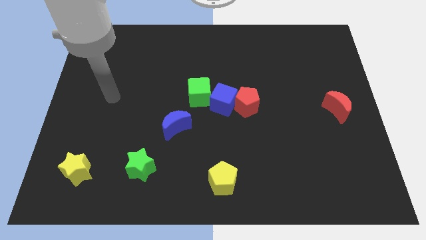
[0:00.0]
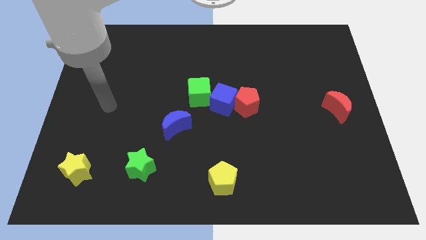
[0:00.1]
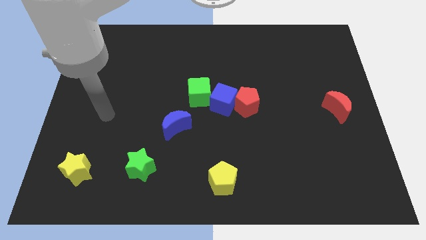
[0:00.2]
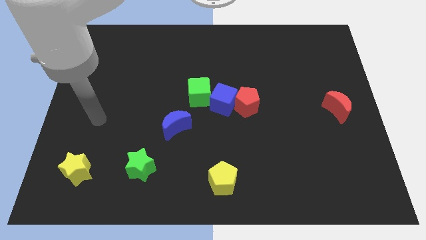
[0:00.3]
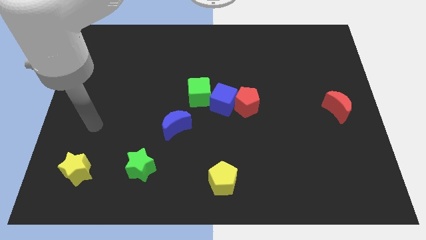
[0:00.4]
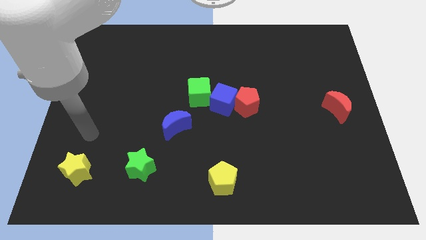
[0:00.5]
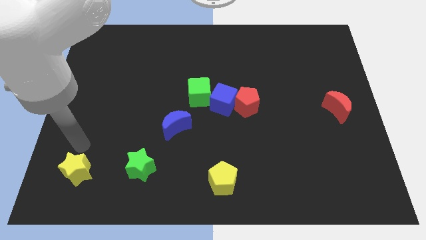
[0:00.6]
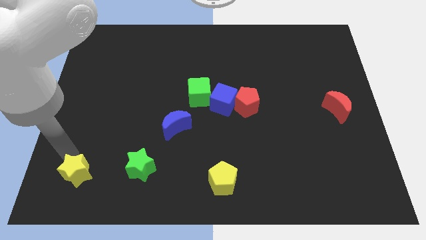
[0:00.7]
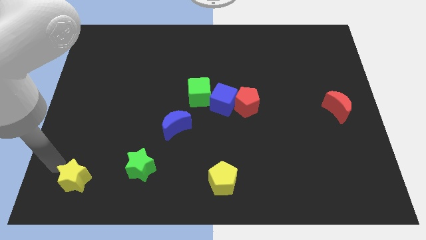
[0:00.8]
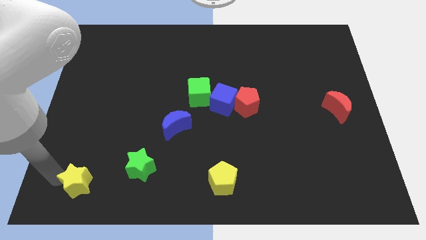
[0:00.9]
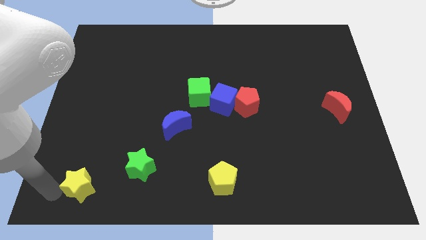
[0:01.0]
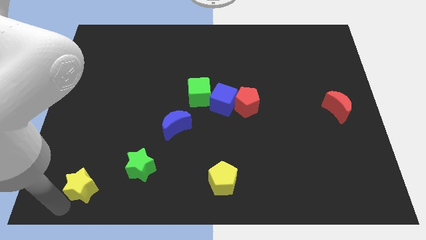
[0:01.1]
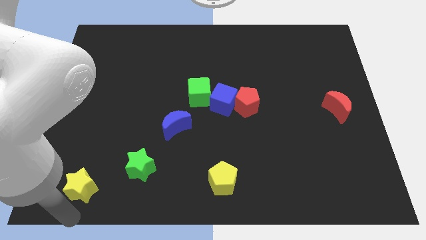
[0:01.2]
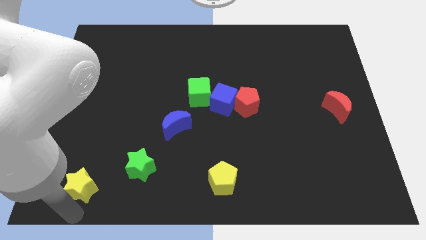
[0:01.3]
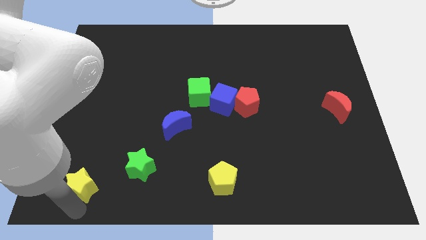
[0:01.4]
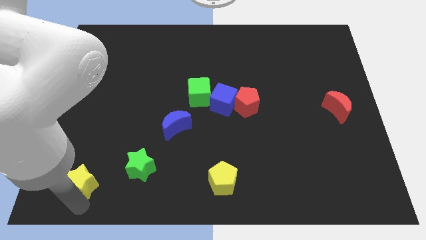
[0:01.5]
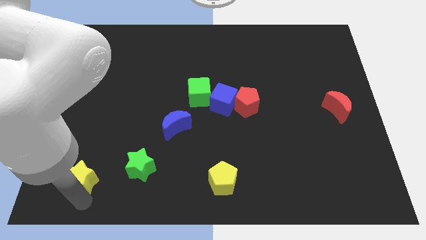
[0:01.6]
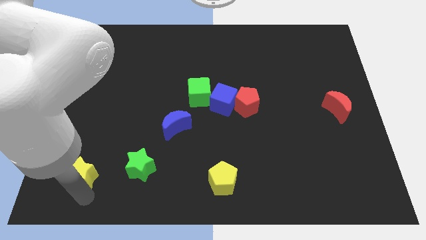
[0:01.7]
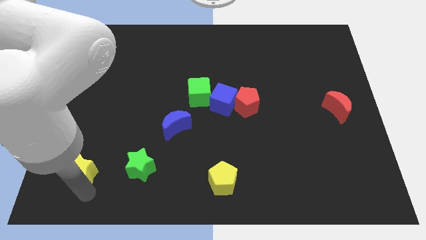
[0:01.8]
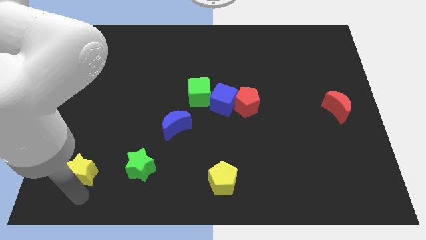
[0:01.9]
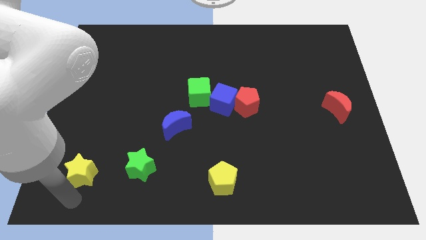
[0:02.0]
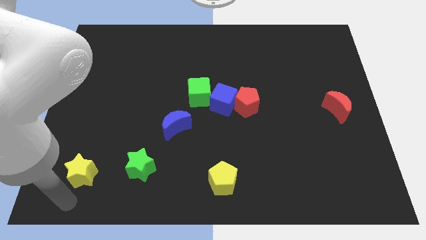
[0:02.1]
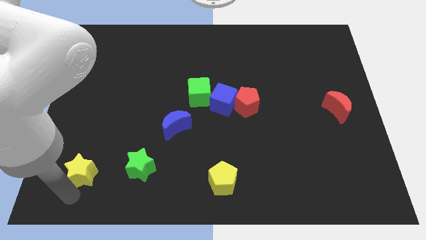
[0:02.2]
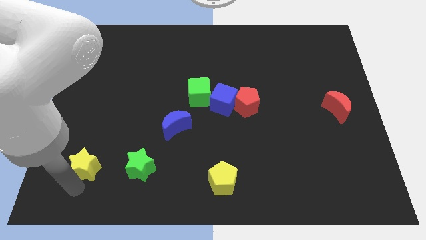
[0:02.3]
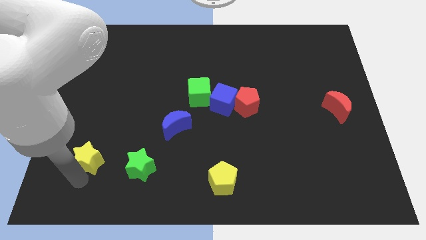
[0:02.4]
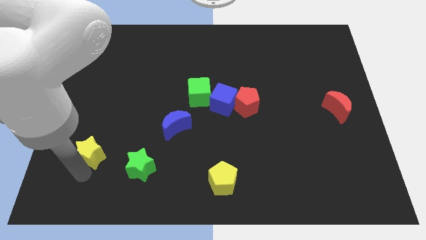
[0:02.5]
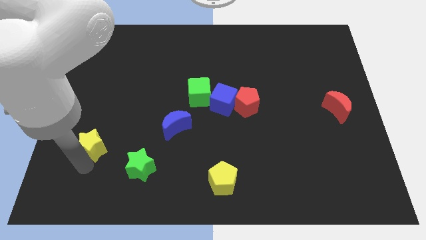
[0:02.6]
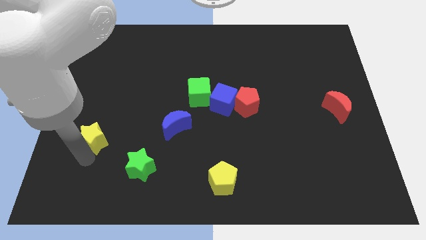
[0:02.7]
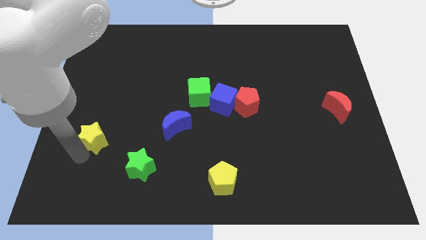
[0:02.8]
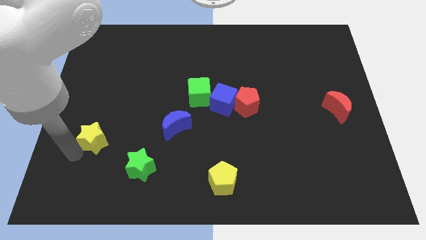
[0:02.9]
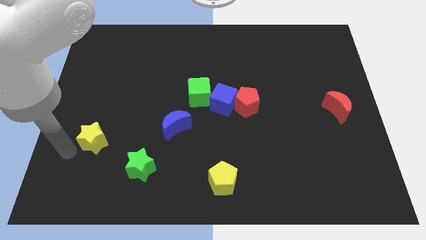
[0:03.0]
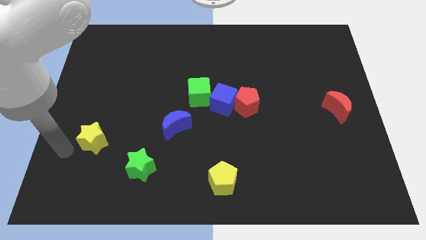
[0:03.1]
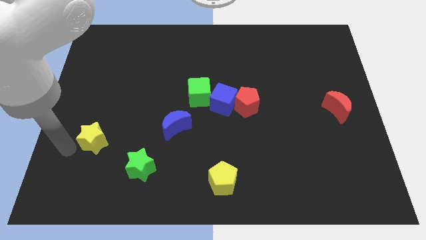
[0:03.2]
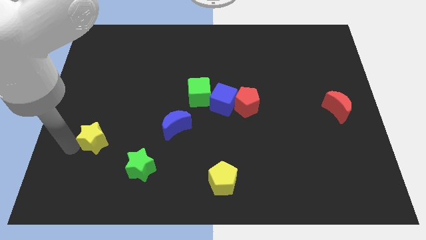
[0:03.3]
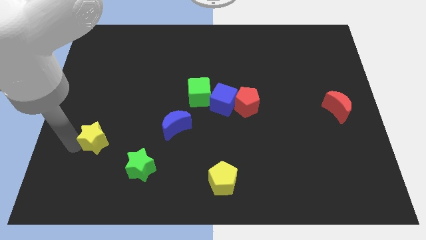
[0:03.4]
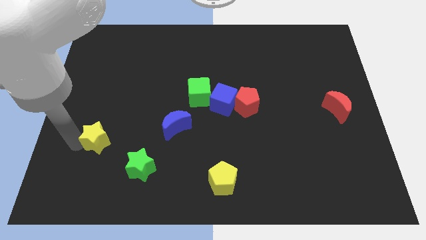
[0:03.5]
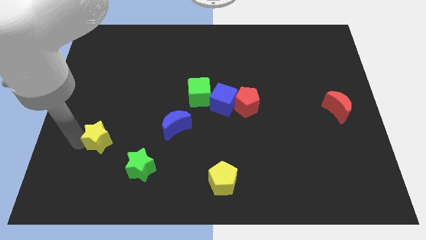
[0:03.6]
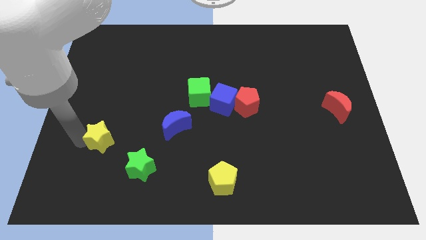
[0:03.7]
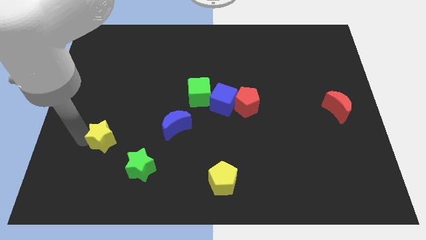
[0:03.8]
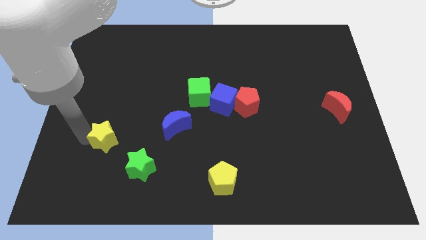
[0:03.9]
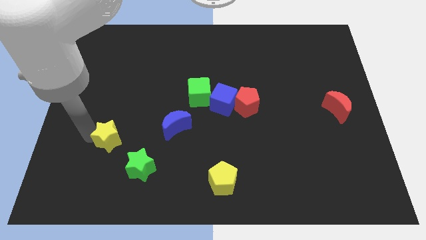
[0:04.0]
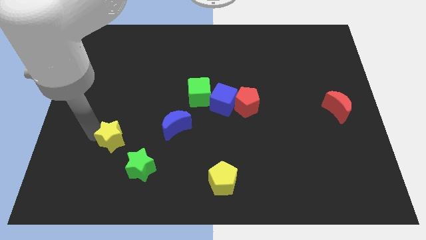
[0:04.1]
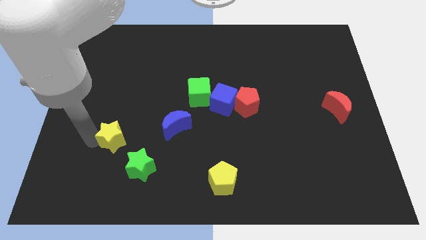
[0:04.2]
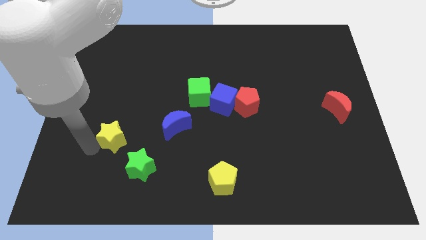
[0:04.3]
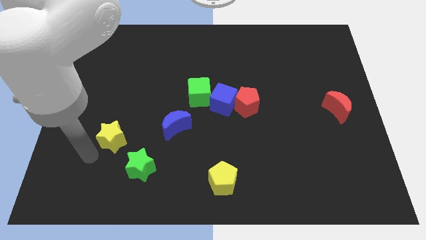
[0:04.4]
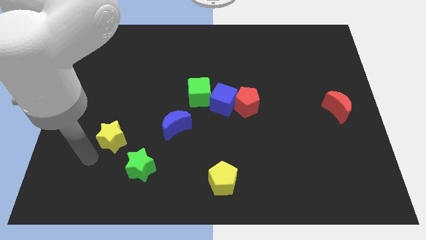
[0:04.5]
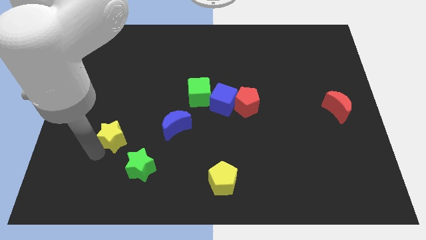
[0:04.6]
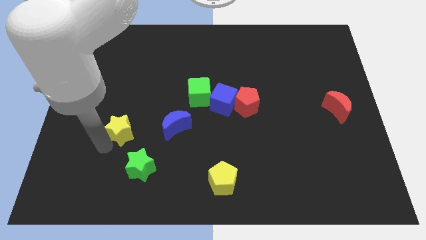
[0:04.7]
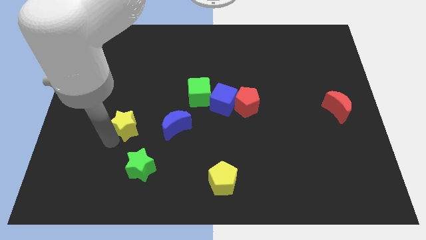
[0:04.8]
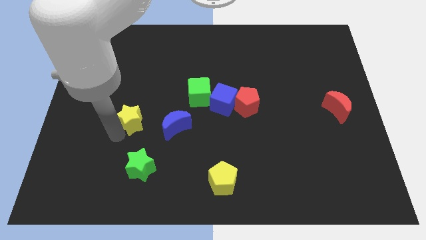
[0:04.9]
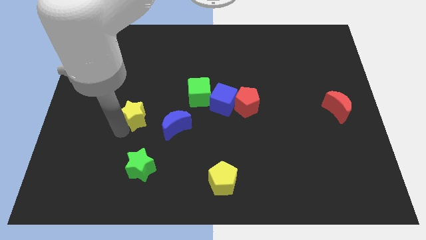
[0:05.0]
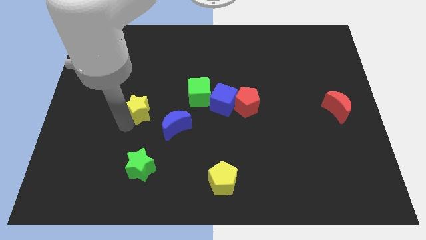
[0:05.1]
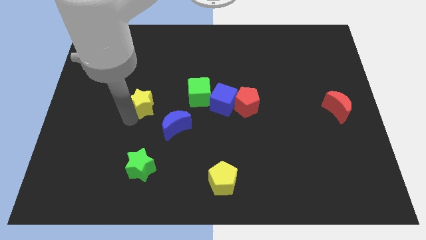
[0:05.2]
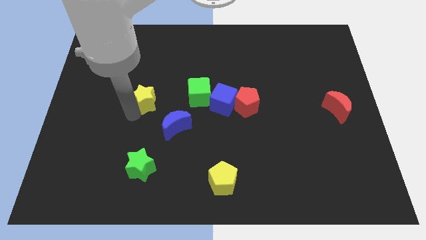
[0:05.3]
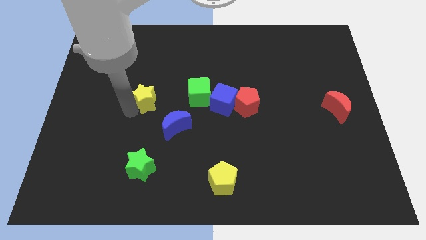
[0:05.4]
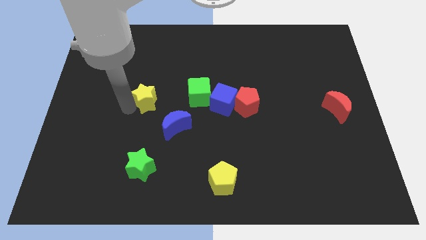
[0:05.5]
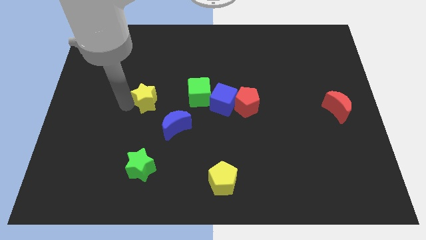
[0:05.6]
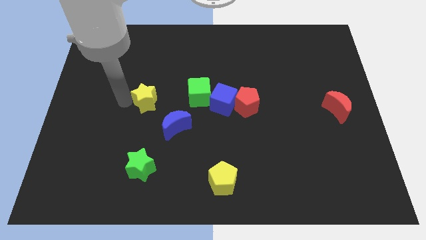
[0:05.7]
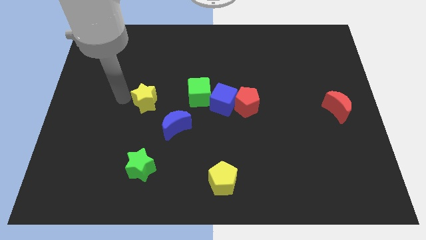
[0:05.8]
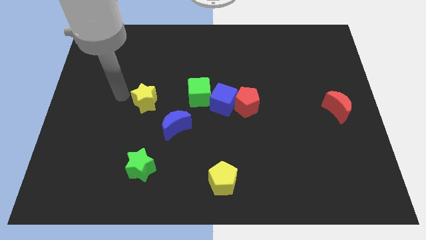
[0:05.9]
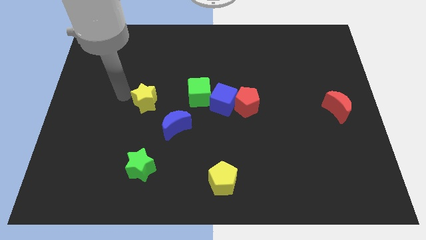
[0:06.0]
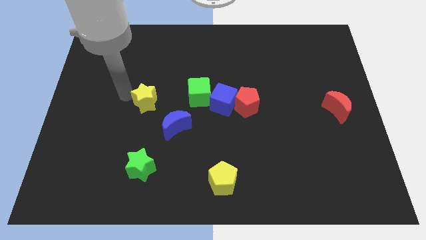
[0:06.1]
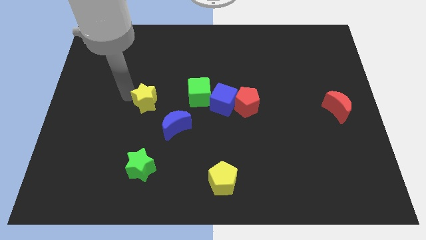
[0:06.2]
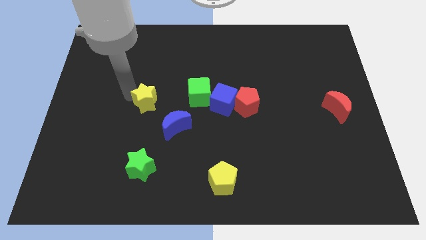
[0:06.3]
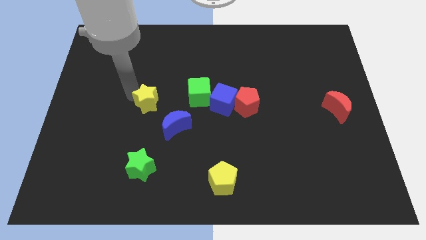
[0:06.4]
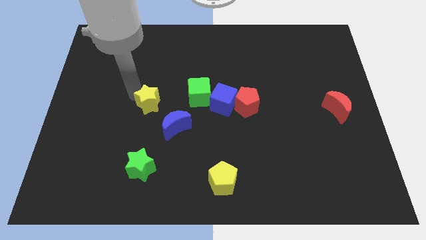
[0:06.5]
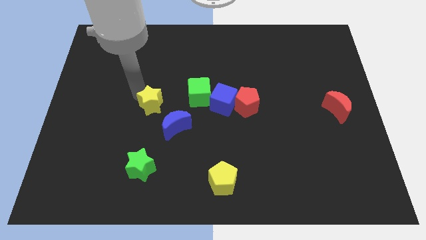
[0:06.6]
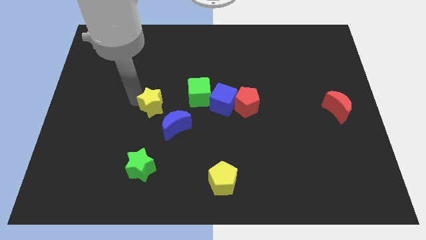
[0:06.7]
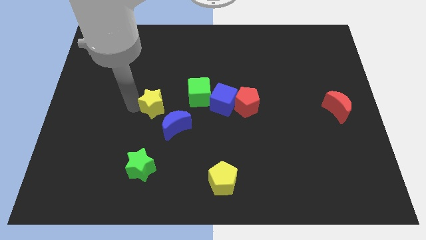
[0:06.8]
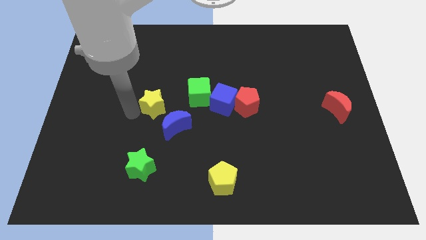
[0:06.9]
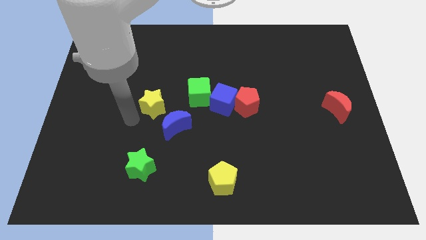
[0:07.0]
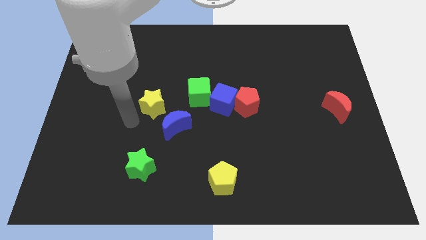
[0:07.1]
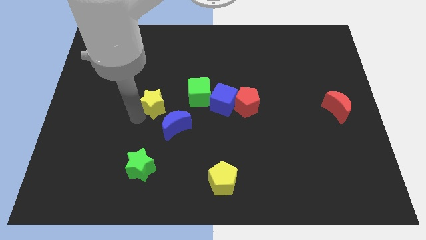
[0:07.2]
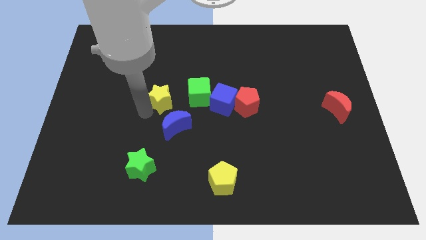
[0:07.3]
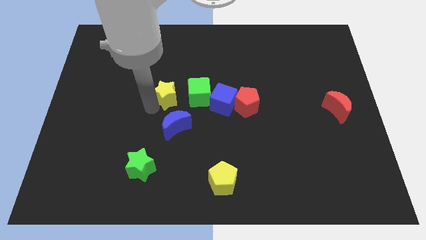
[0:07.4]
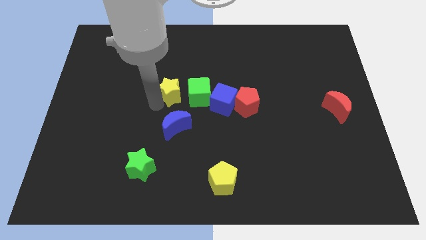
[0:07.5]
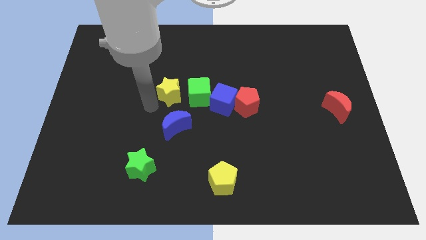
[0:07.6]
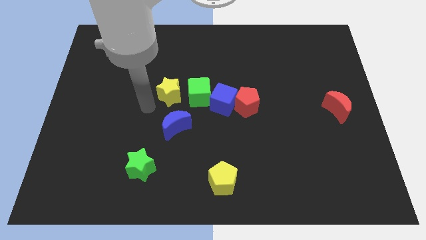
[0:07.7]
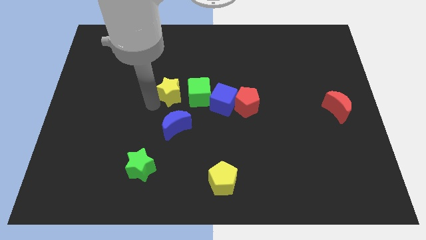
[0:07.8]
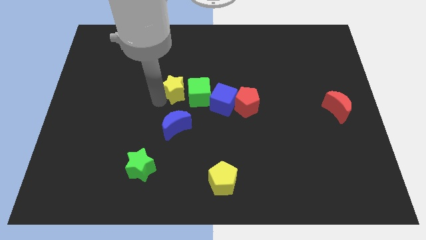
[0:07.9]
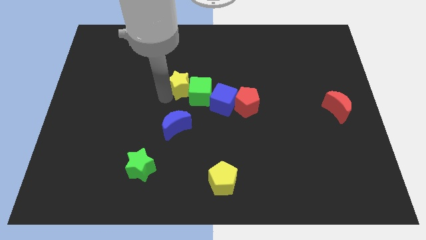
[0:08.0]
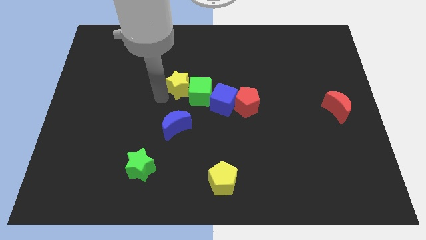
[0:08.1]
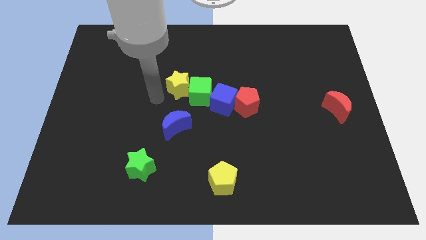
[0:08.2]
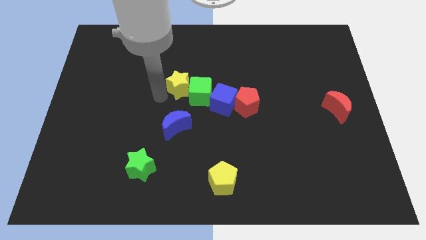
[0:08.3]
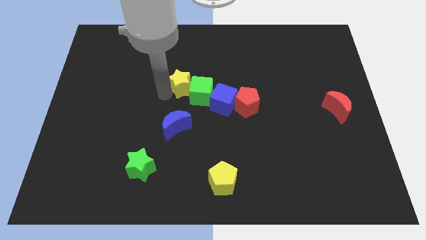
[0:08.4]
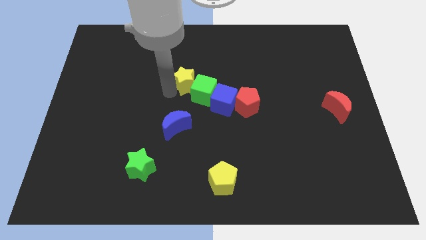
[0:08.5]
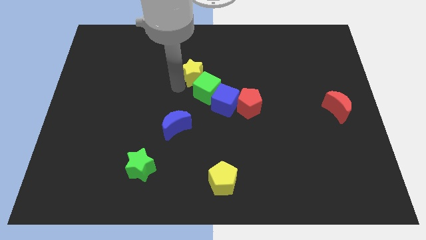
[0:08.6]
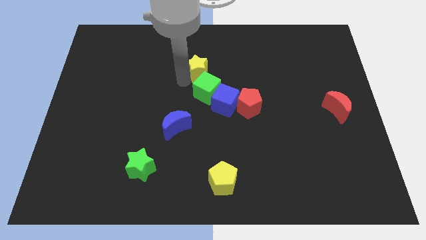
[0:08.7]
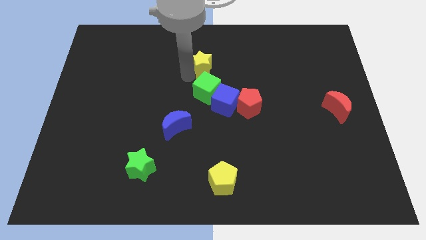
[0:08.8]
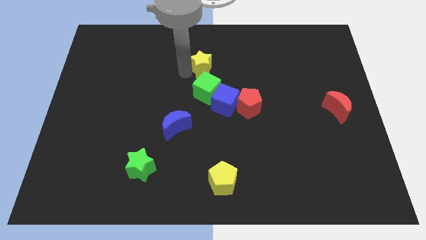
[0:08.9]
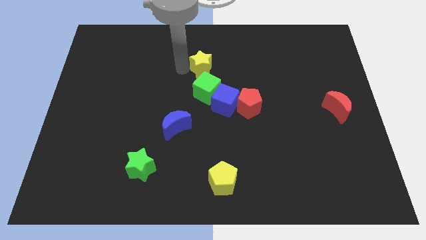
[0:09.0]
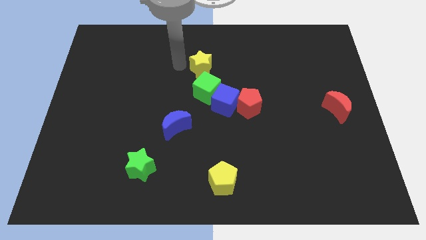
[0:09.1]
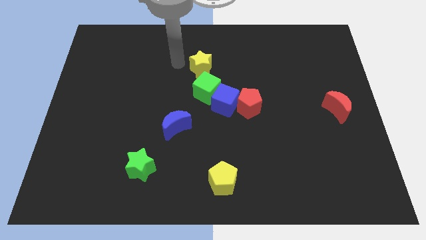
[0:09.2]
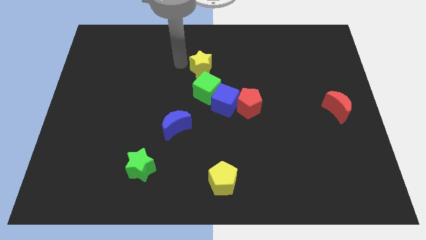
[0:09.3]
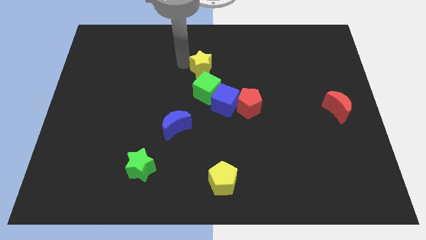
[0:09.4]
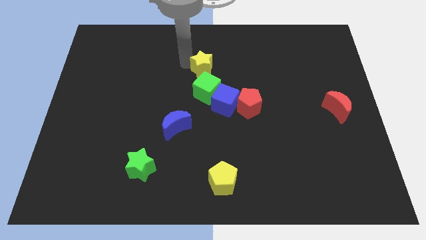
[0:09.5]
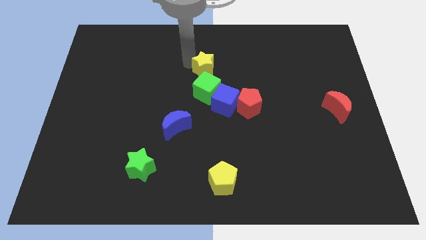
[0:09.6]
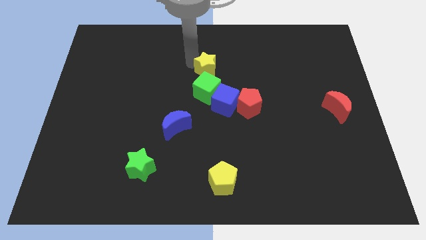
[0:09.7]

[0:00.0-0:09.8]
put the yellow star above the blue cube
